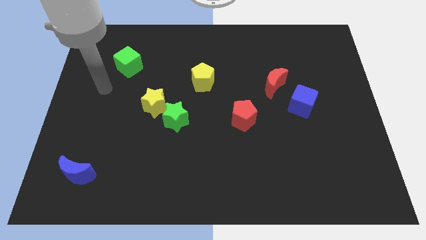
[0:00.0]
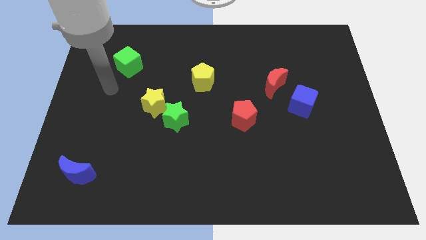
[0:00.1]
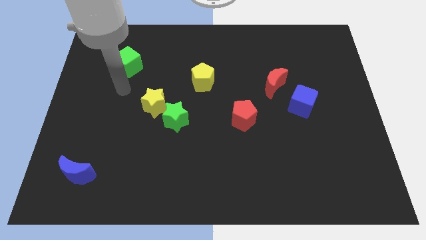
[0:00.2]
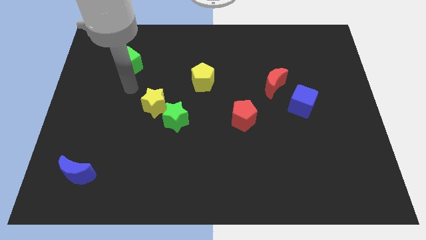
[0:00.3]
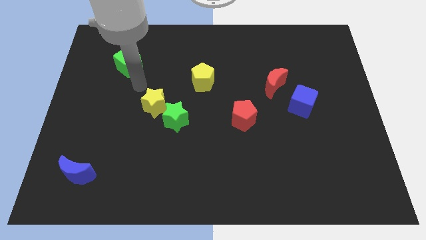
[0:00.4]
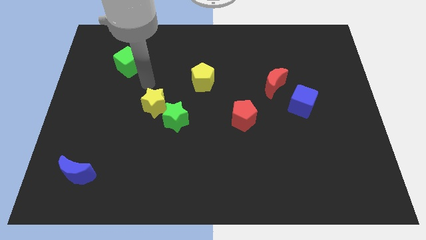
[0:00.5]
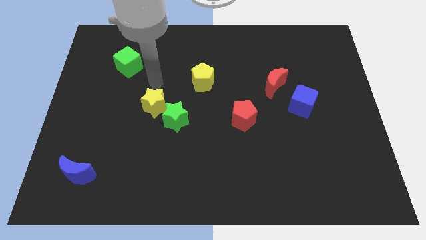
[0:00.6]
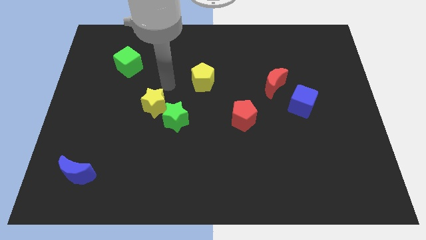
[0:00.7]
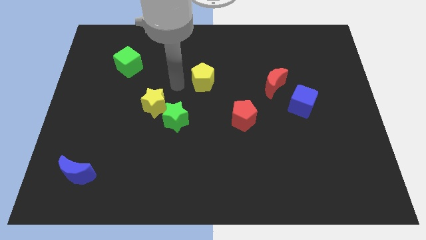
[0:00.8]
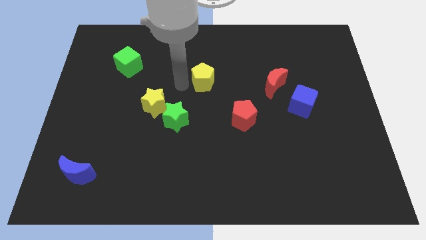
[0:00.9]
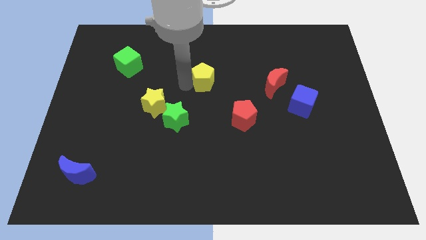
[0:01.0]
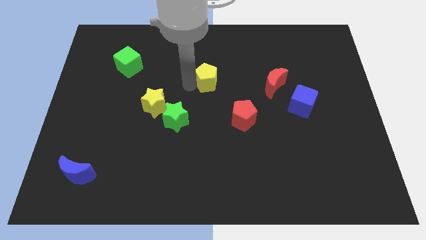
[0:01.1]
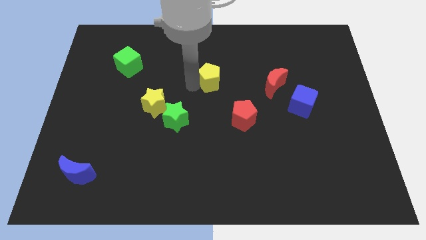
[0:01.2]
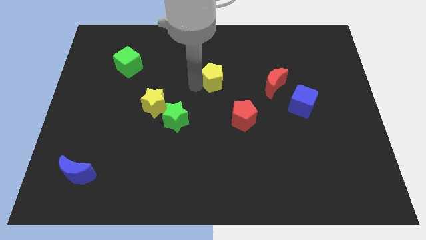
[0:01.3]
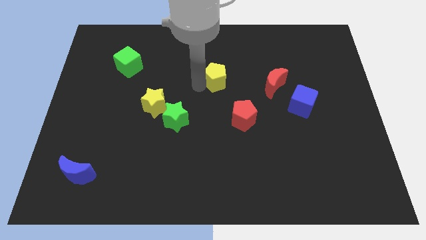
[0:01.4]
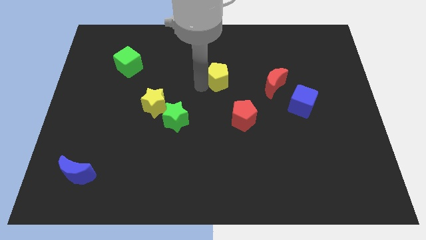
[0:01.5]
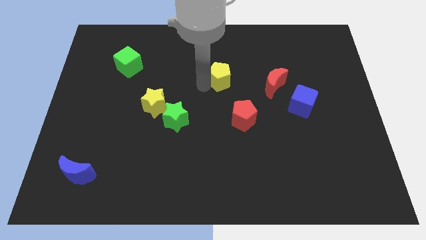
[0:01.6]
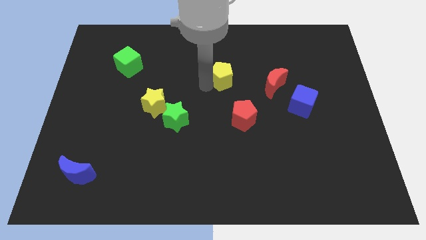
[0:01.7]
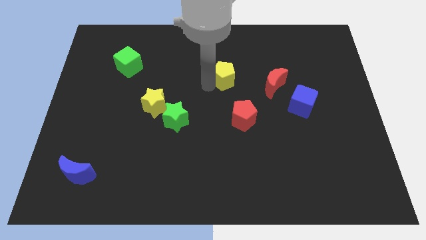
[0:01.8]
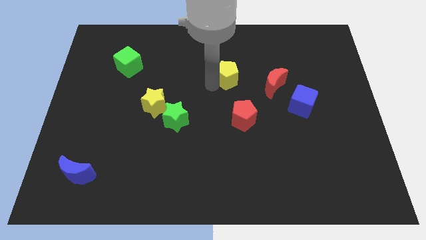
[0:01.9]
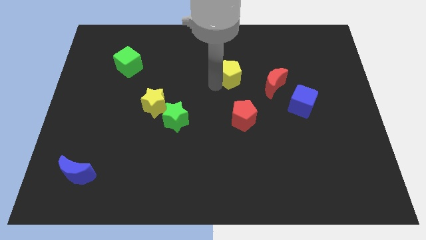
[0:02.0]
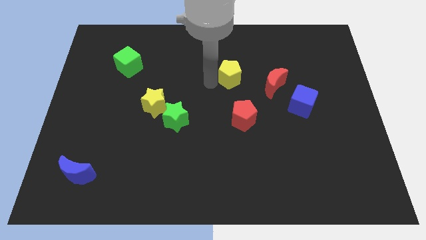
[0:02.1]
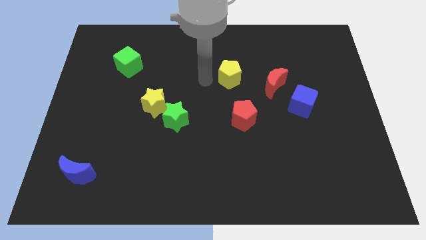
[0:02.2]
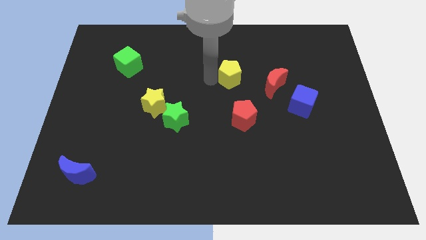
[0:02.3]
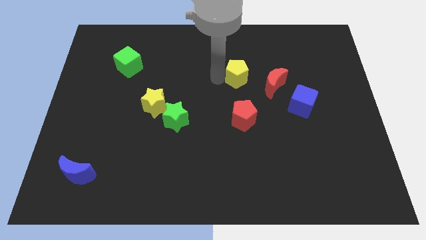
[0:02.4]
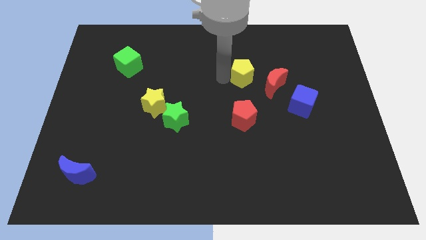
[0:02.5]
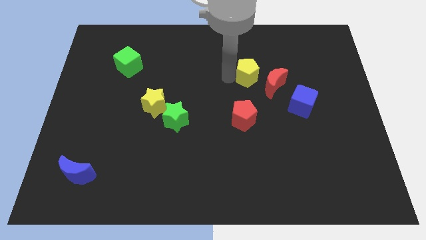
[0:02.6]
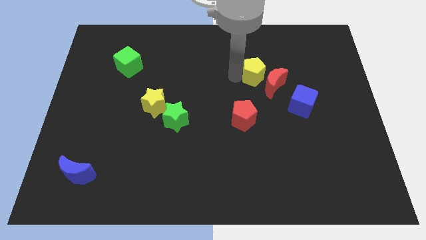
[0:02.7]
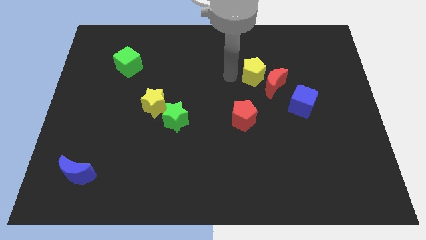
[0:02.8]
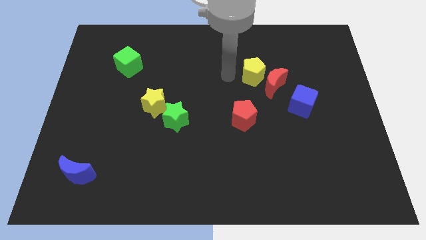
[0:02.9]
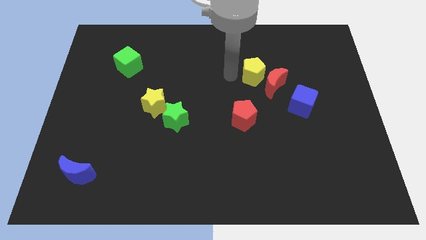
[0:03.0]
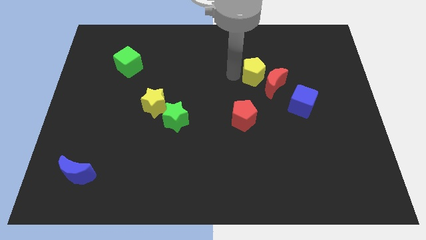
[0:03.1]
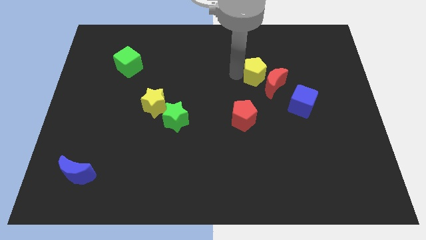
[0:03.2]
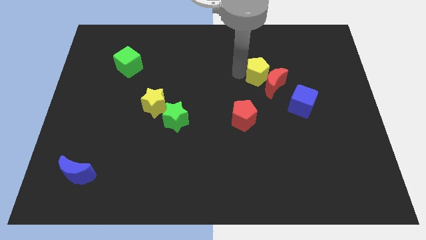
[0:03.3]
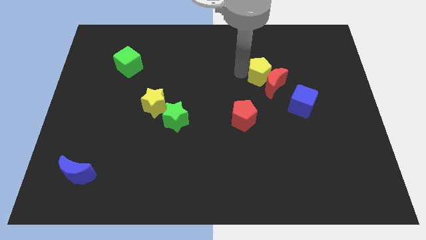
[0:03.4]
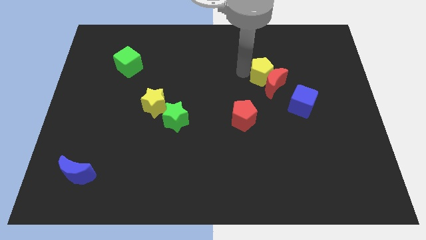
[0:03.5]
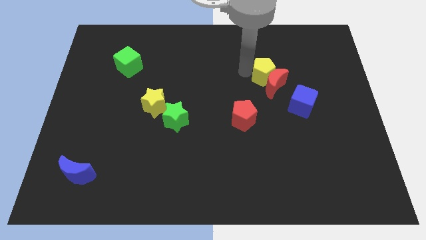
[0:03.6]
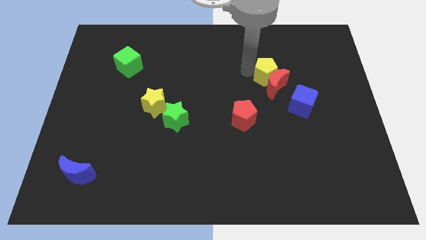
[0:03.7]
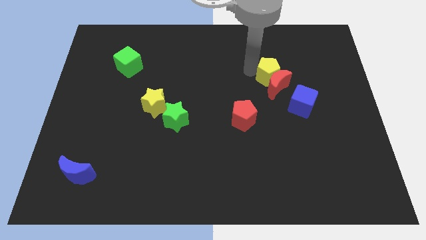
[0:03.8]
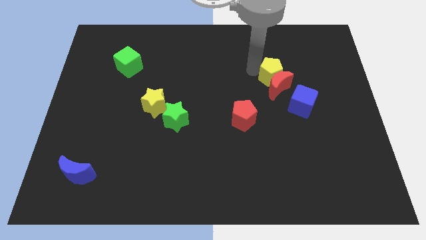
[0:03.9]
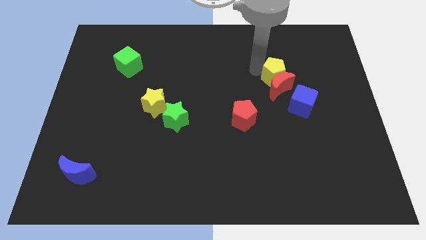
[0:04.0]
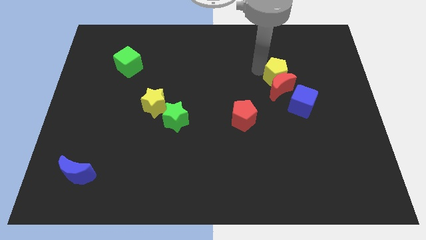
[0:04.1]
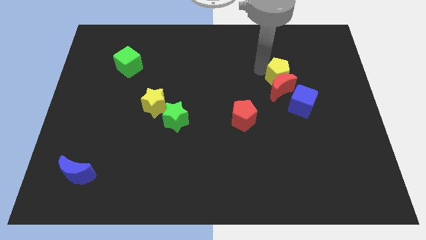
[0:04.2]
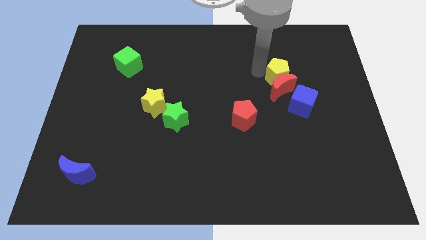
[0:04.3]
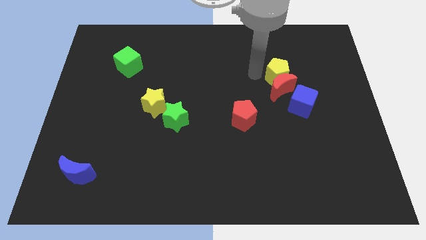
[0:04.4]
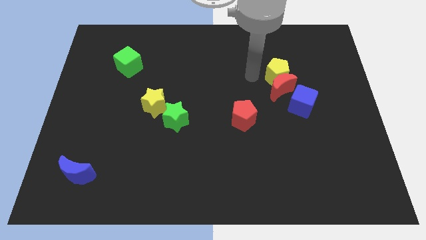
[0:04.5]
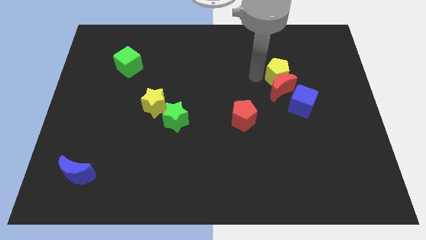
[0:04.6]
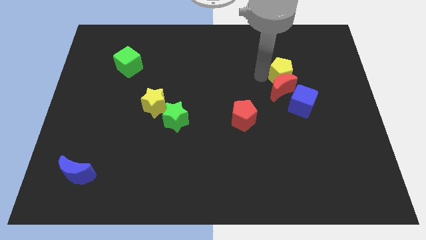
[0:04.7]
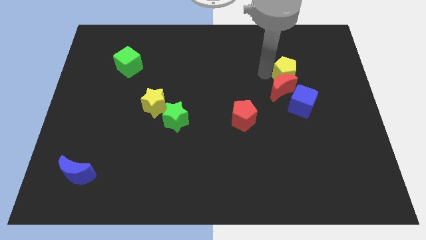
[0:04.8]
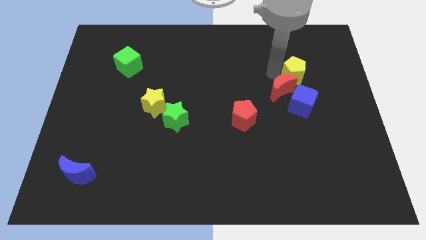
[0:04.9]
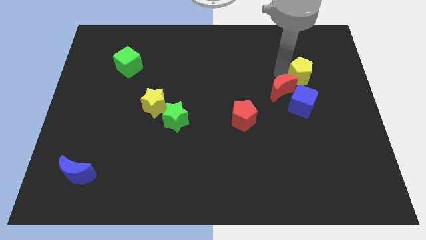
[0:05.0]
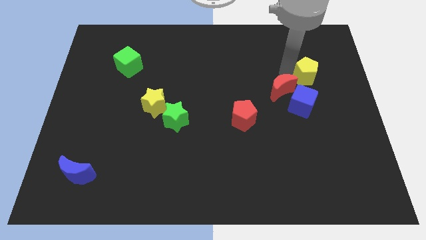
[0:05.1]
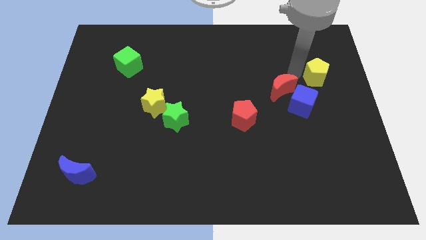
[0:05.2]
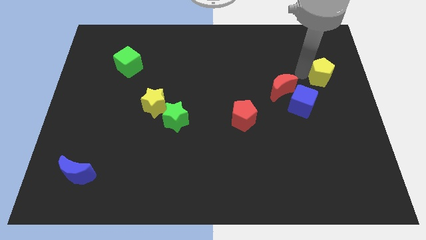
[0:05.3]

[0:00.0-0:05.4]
put the yellow pentagon to the right side of the board

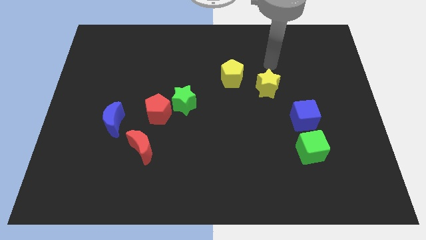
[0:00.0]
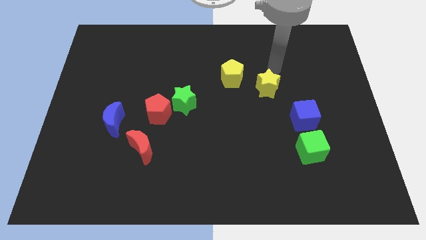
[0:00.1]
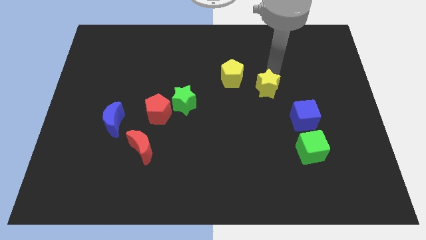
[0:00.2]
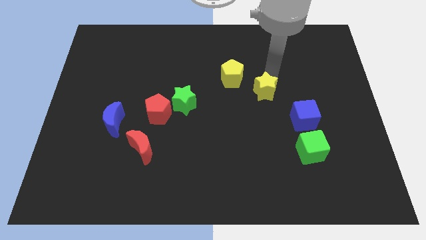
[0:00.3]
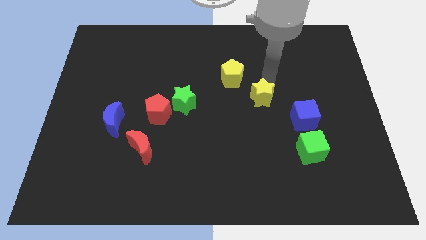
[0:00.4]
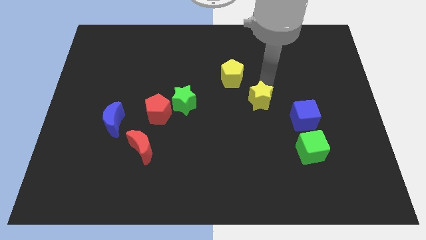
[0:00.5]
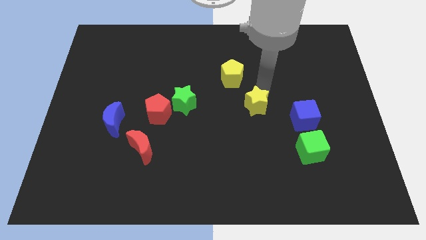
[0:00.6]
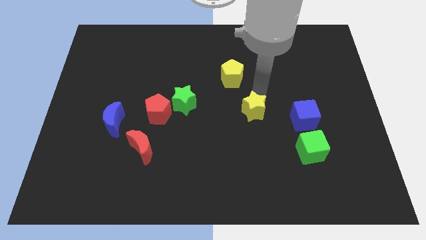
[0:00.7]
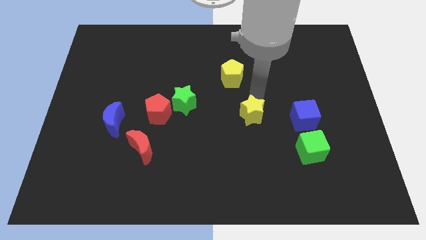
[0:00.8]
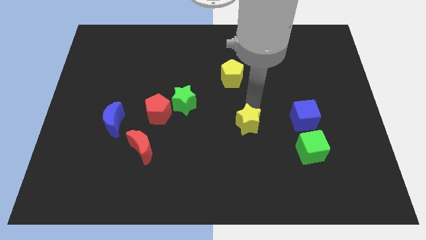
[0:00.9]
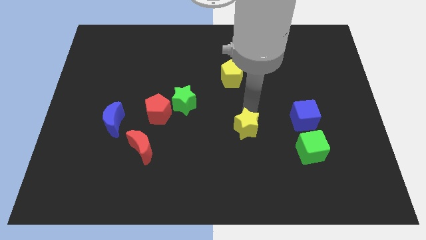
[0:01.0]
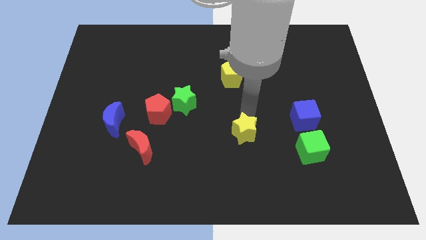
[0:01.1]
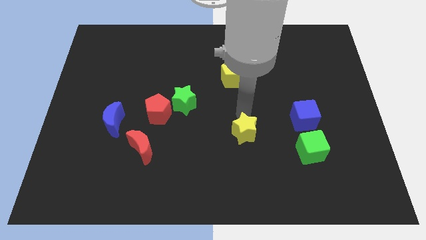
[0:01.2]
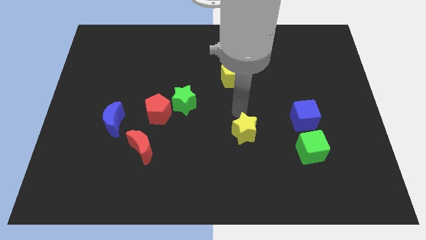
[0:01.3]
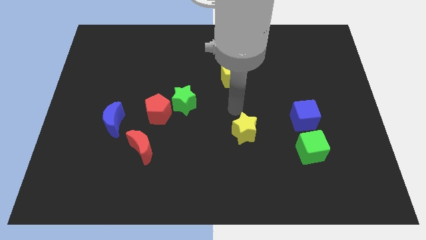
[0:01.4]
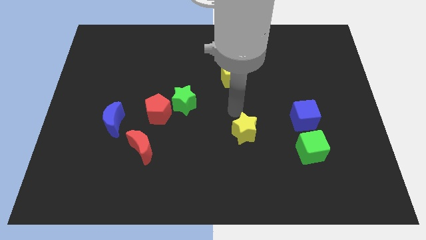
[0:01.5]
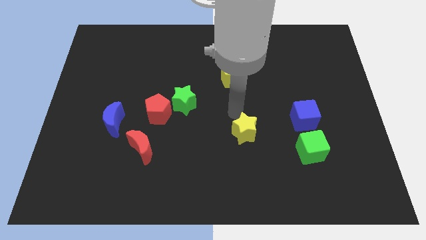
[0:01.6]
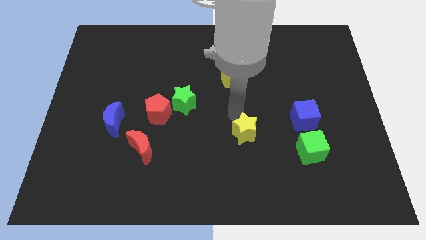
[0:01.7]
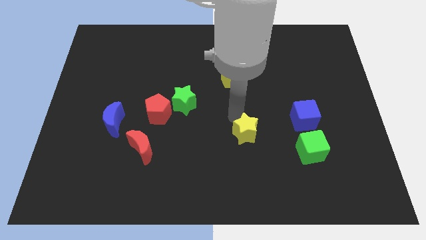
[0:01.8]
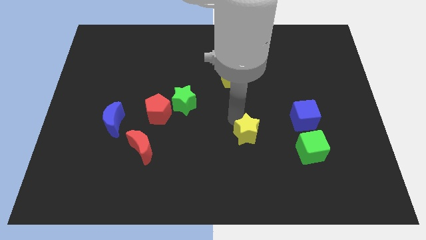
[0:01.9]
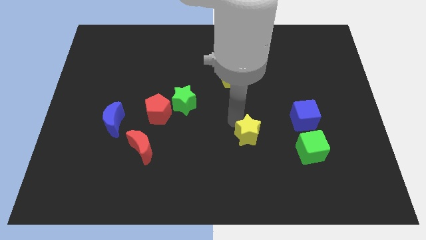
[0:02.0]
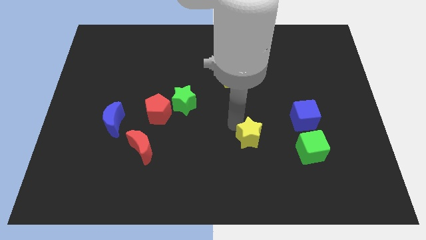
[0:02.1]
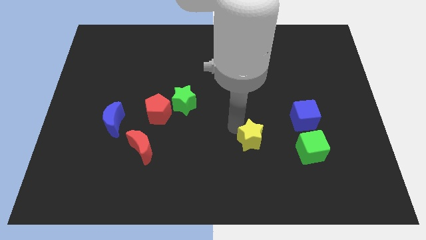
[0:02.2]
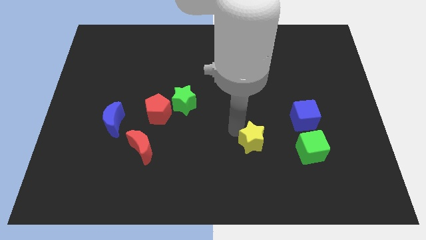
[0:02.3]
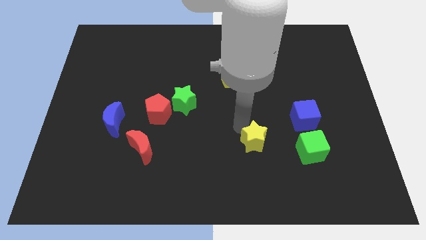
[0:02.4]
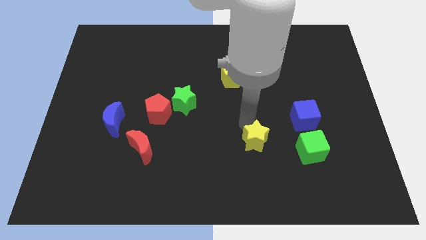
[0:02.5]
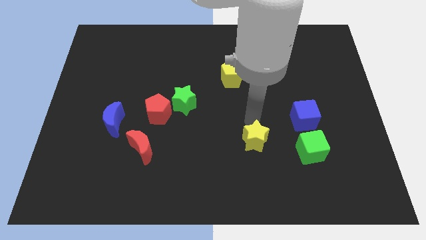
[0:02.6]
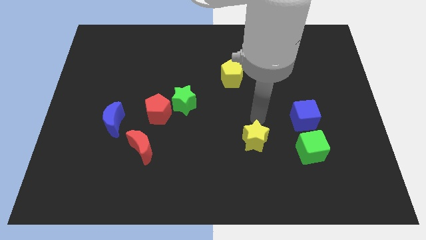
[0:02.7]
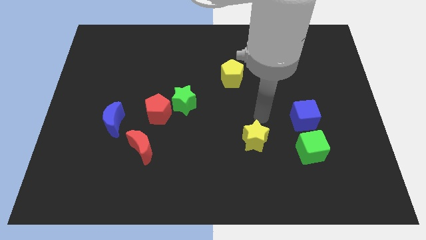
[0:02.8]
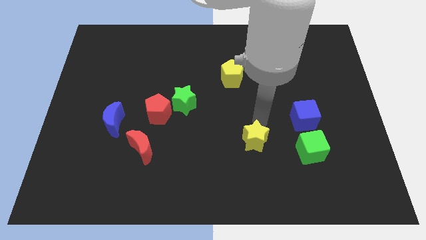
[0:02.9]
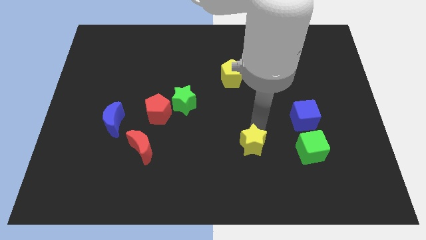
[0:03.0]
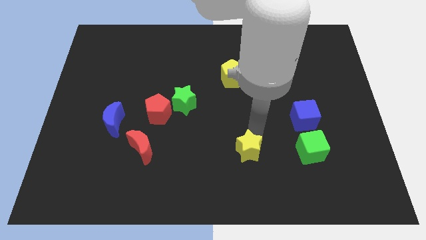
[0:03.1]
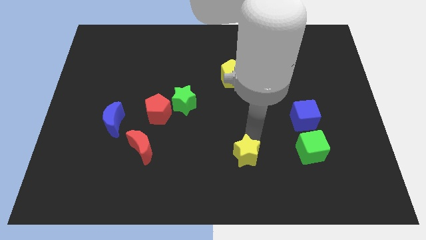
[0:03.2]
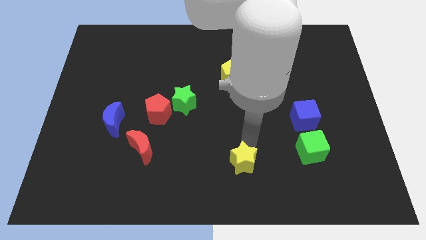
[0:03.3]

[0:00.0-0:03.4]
put the yellow star to the bottom side
